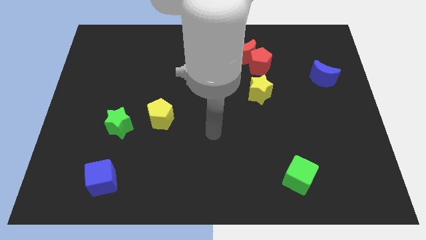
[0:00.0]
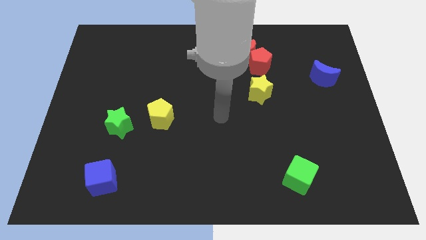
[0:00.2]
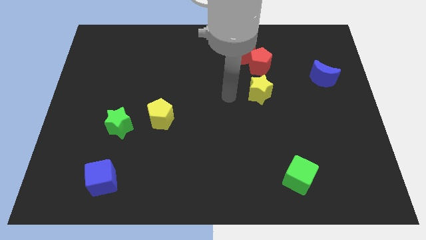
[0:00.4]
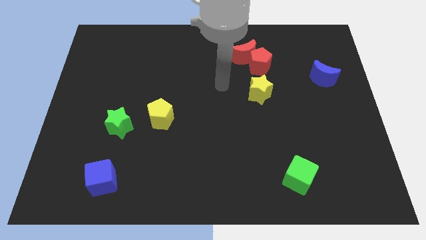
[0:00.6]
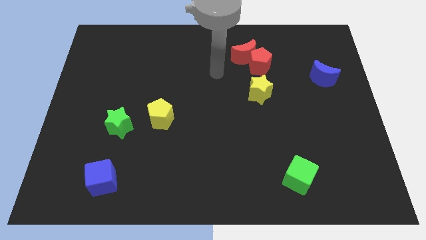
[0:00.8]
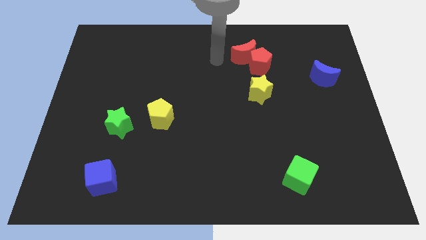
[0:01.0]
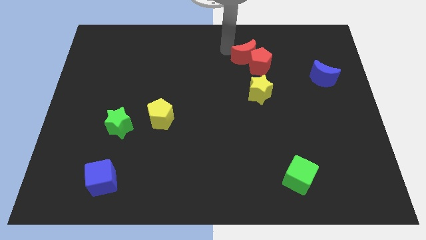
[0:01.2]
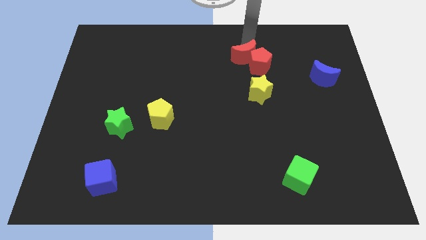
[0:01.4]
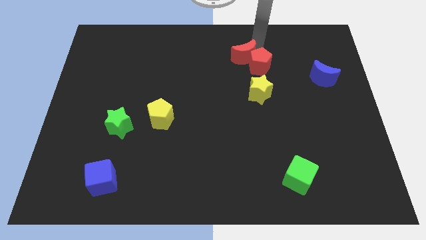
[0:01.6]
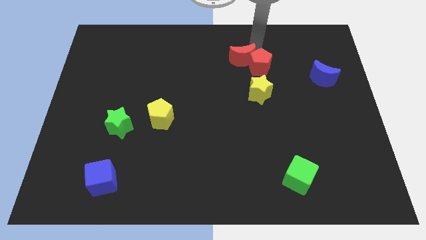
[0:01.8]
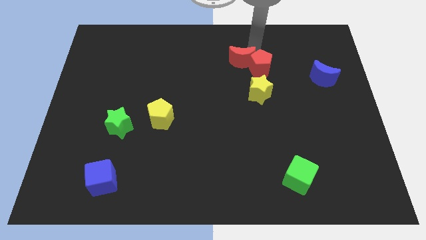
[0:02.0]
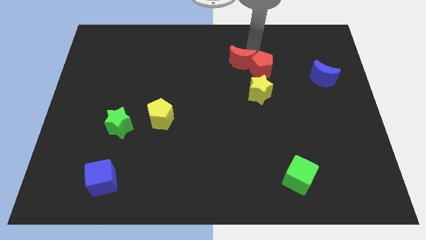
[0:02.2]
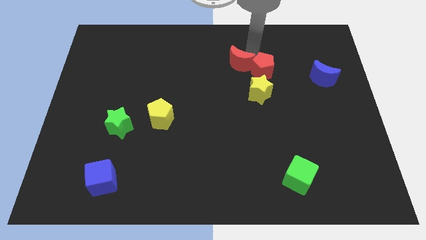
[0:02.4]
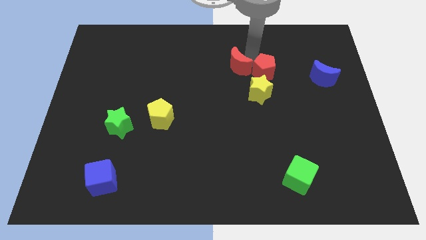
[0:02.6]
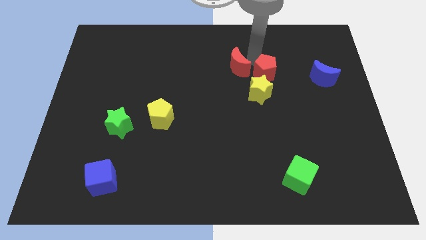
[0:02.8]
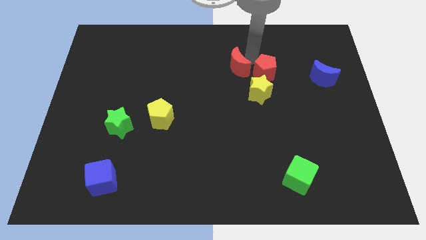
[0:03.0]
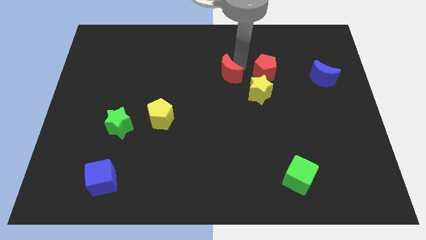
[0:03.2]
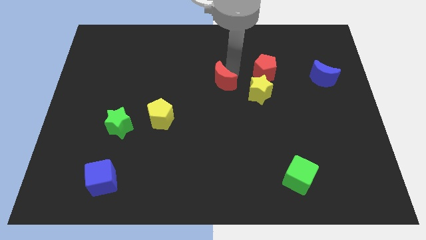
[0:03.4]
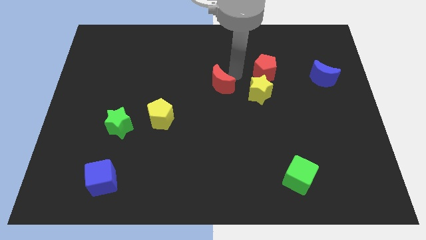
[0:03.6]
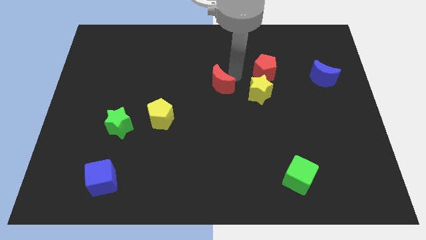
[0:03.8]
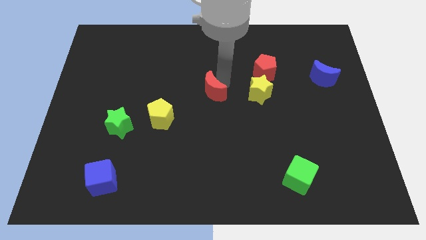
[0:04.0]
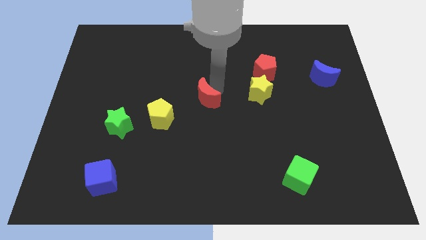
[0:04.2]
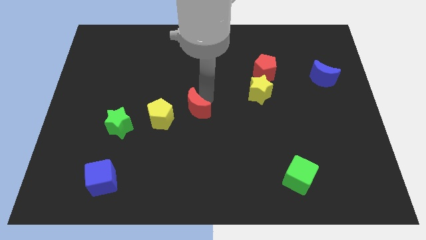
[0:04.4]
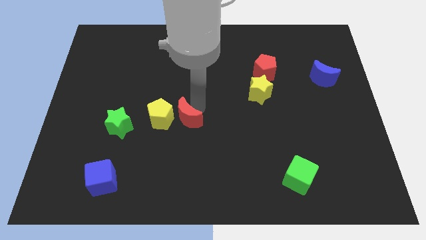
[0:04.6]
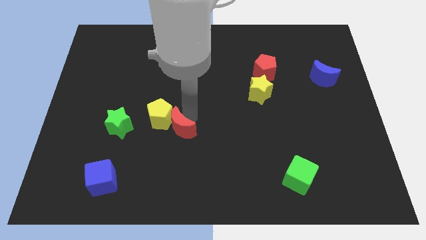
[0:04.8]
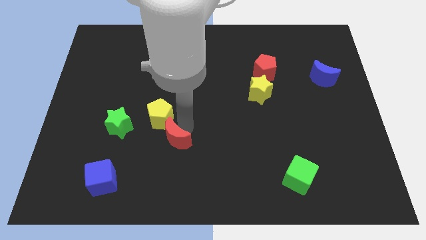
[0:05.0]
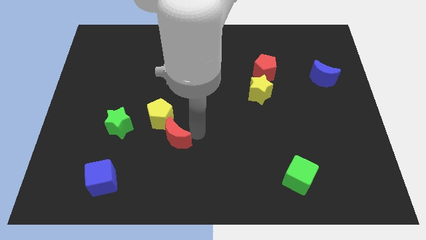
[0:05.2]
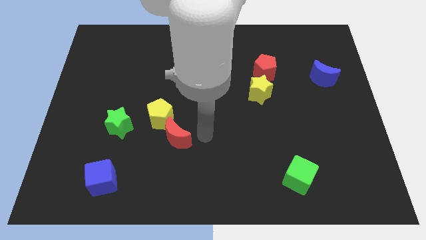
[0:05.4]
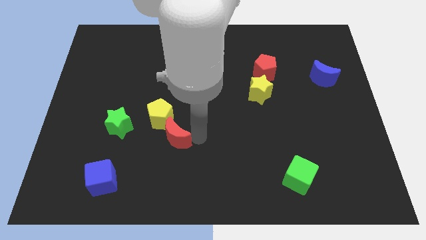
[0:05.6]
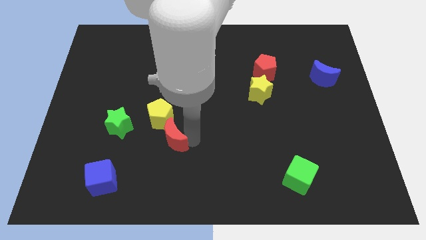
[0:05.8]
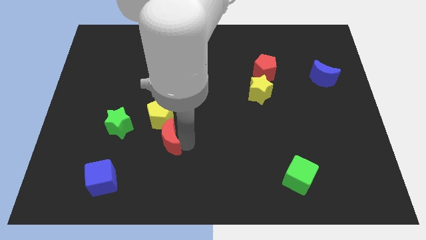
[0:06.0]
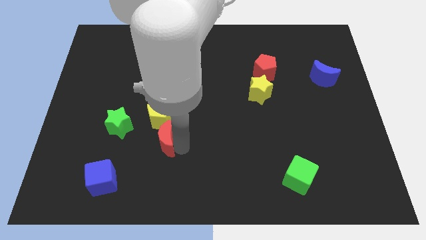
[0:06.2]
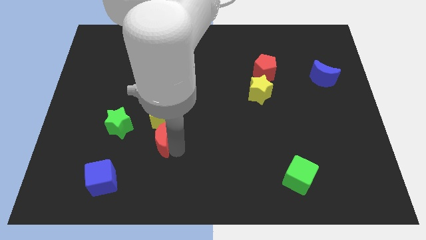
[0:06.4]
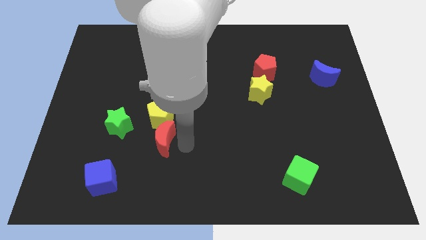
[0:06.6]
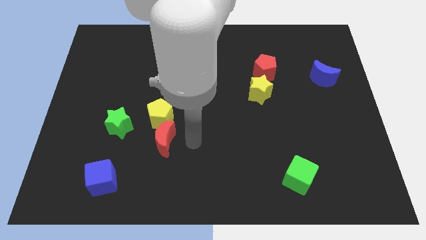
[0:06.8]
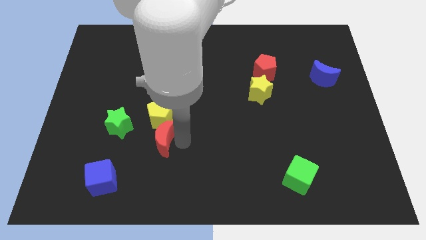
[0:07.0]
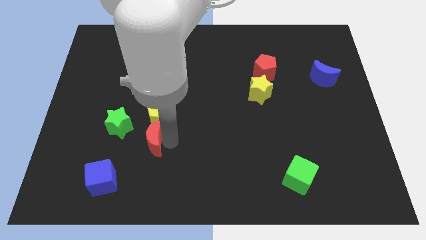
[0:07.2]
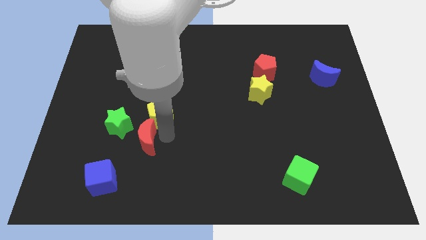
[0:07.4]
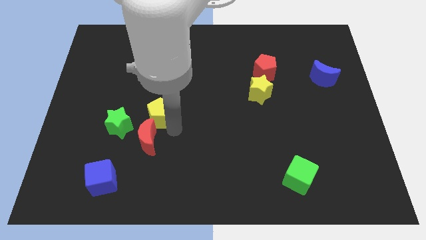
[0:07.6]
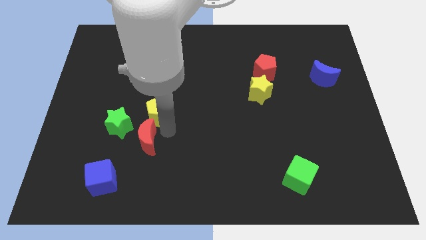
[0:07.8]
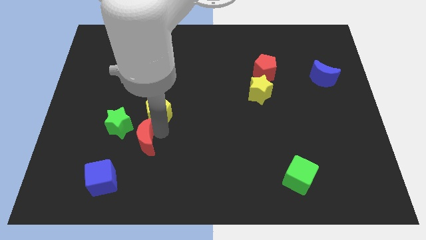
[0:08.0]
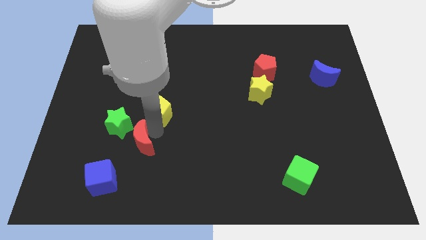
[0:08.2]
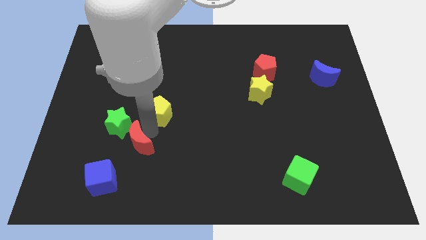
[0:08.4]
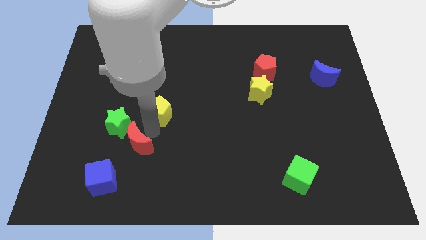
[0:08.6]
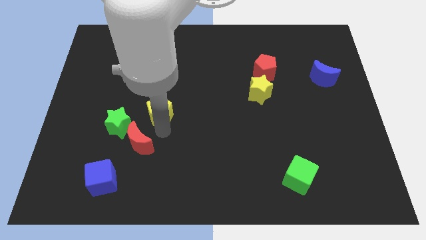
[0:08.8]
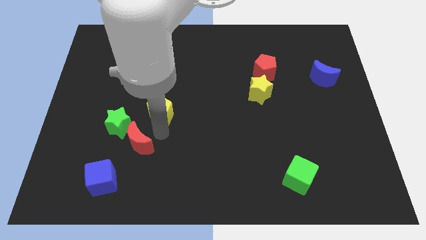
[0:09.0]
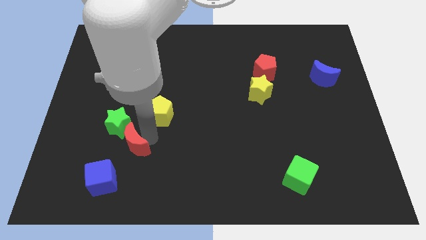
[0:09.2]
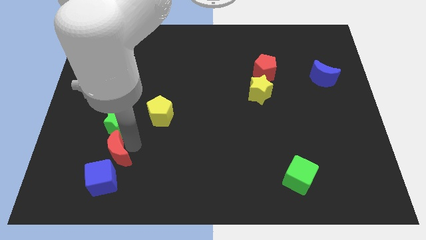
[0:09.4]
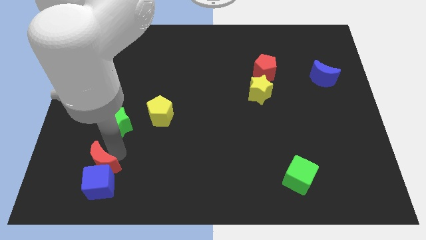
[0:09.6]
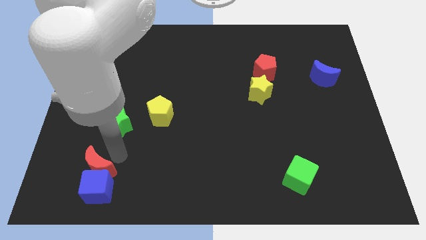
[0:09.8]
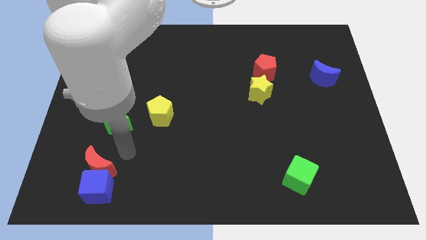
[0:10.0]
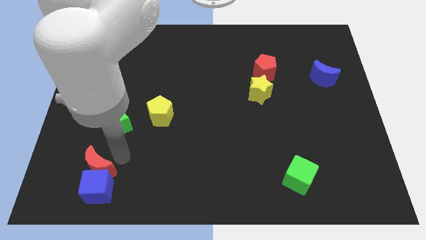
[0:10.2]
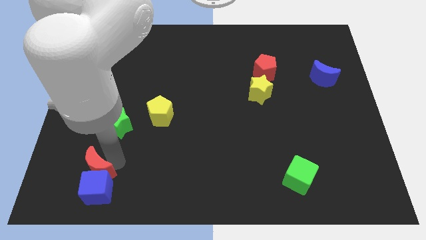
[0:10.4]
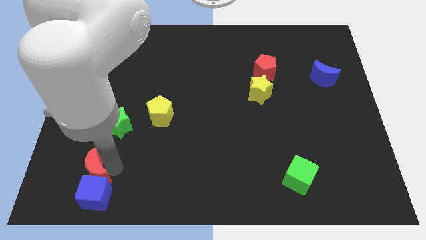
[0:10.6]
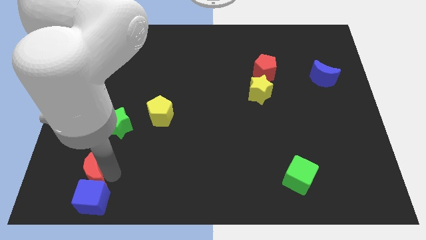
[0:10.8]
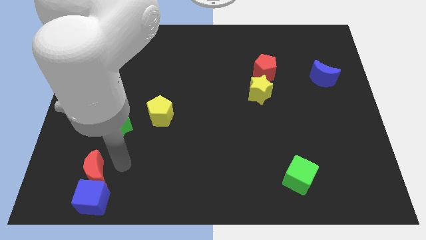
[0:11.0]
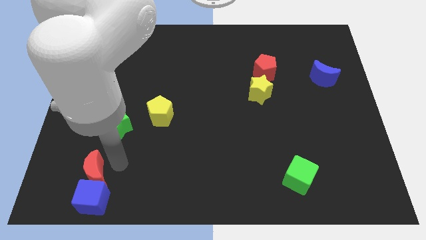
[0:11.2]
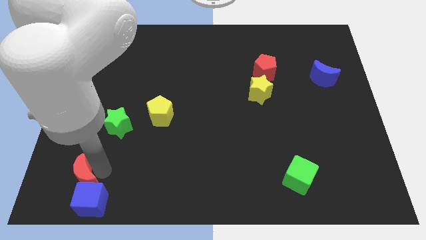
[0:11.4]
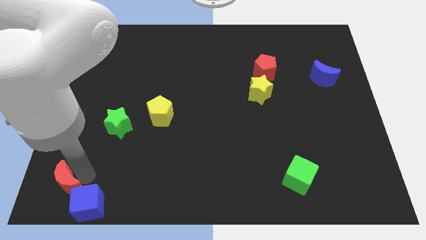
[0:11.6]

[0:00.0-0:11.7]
move the red moon to the bottom left corner

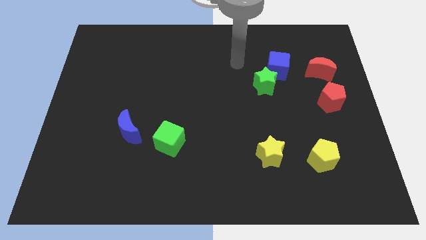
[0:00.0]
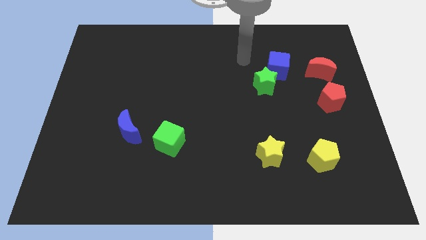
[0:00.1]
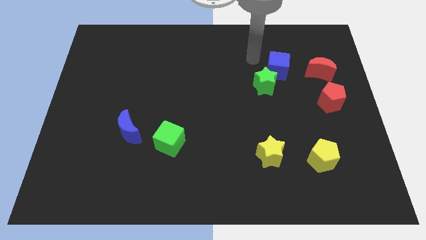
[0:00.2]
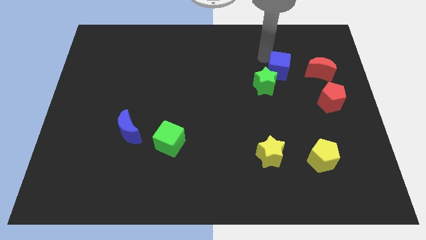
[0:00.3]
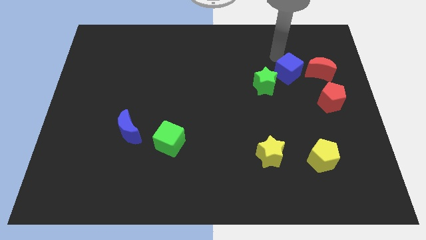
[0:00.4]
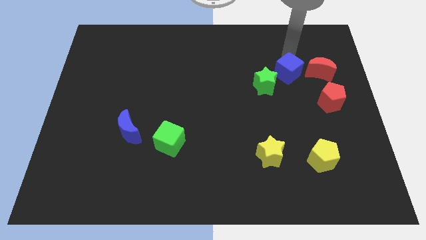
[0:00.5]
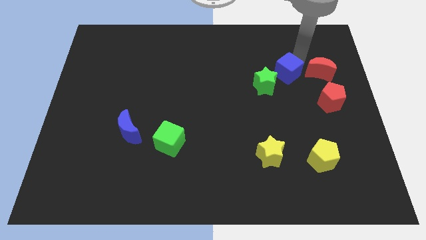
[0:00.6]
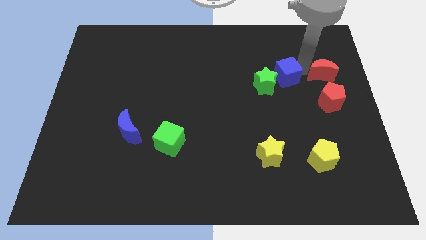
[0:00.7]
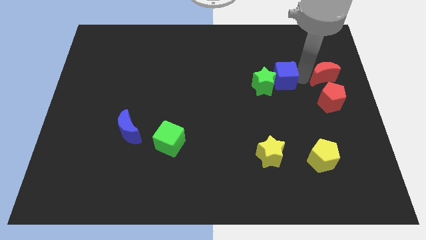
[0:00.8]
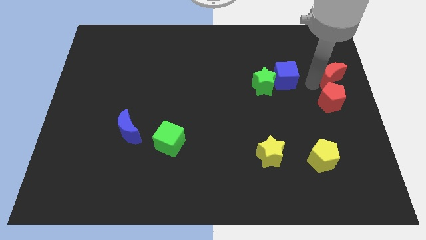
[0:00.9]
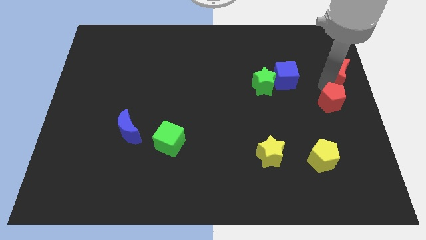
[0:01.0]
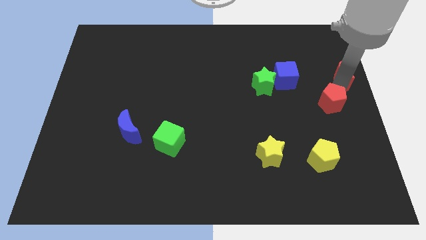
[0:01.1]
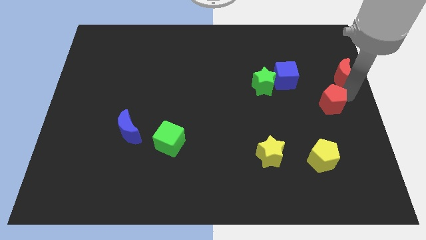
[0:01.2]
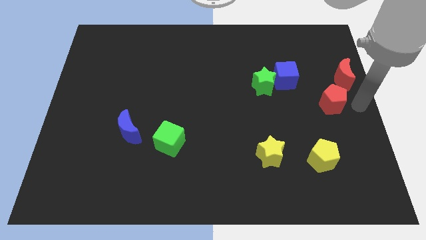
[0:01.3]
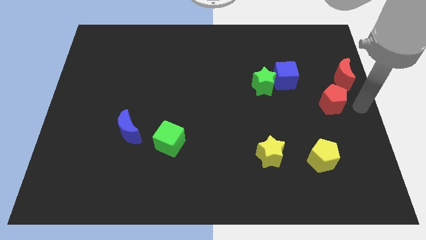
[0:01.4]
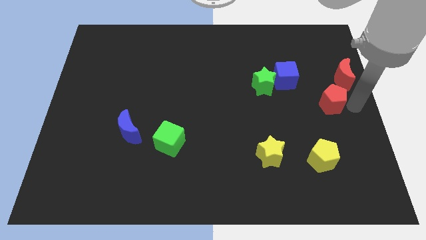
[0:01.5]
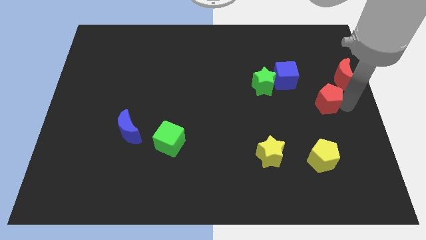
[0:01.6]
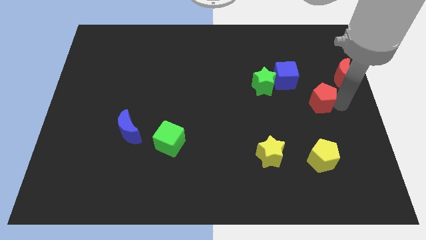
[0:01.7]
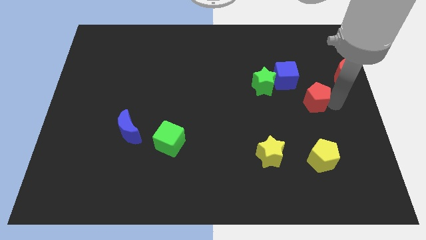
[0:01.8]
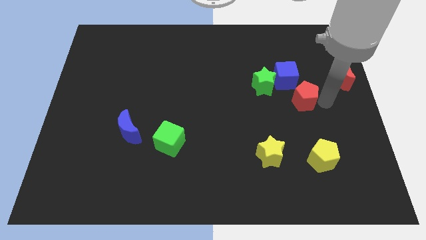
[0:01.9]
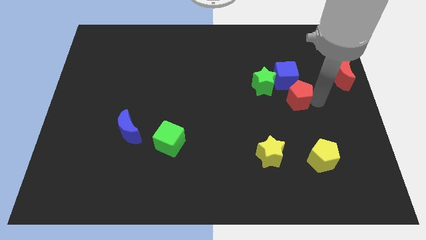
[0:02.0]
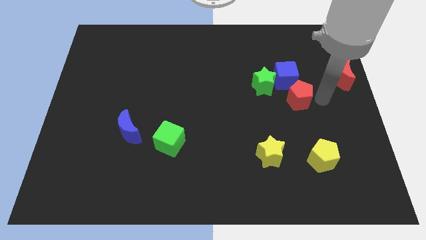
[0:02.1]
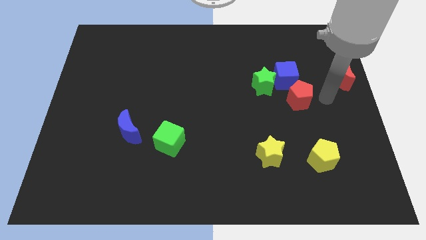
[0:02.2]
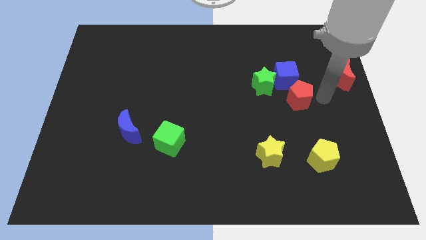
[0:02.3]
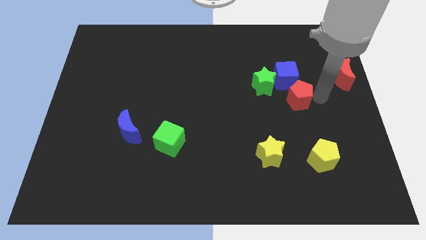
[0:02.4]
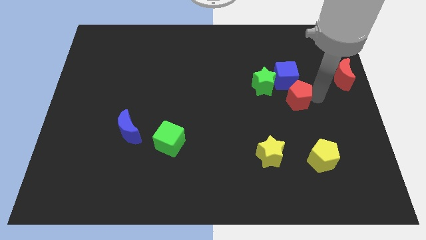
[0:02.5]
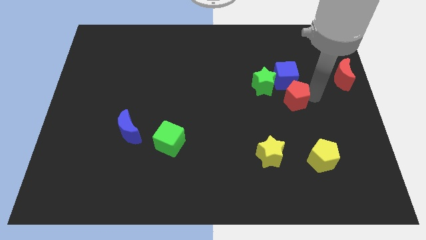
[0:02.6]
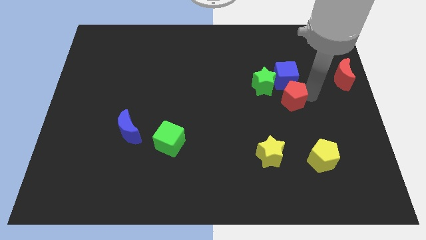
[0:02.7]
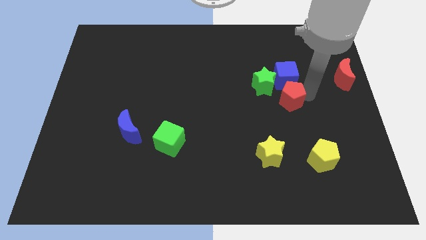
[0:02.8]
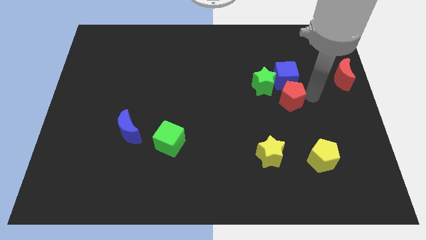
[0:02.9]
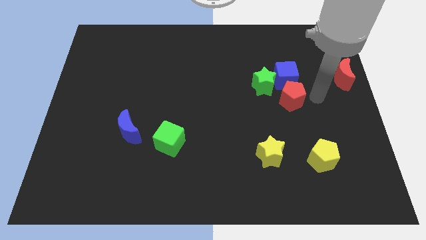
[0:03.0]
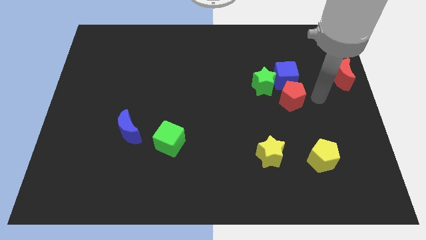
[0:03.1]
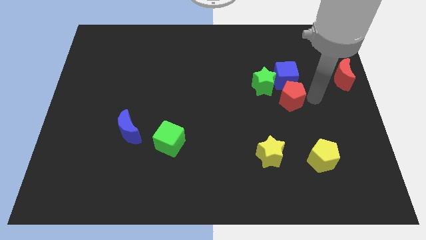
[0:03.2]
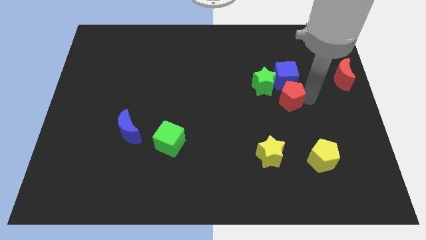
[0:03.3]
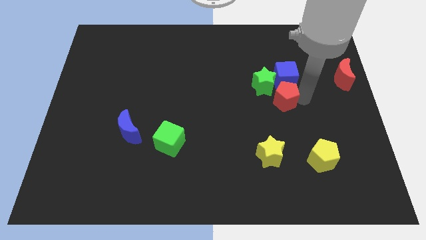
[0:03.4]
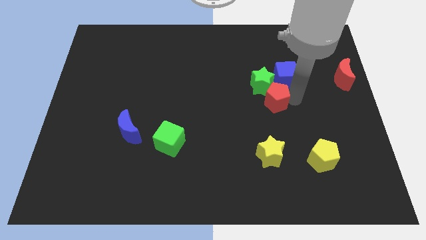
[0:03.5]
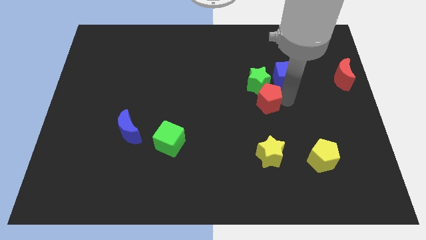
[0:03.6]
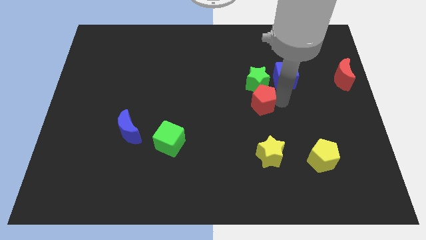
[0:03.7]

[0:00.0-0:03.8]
push the red pentagon to the center of the board
